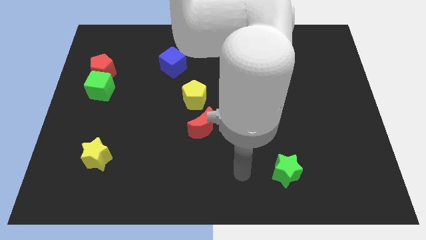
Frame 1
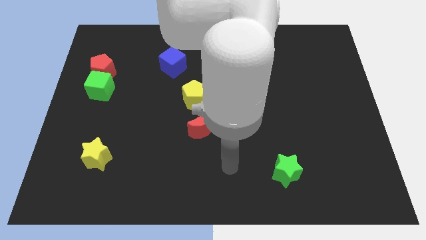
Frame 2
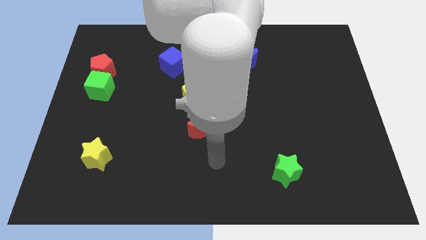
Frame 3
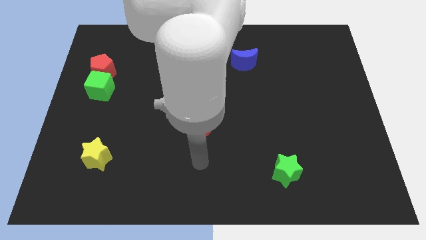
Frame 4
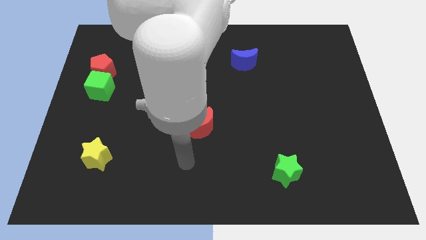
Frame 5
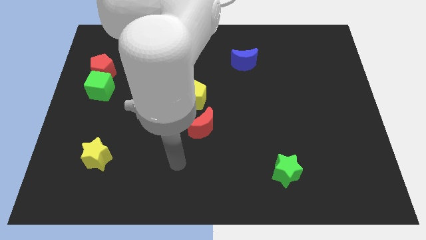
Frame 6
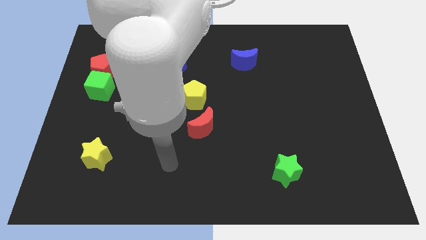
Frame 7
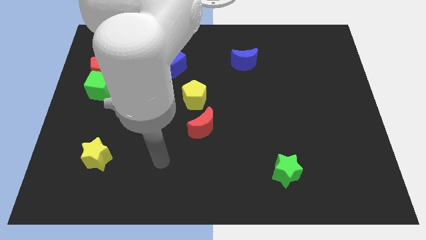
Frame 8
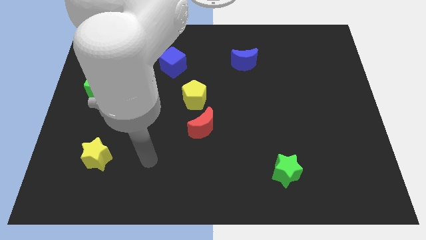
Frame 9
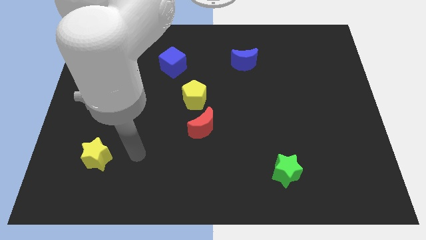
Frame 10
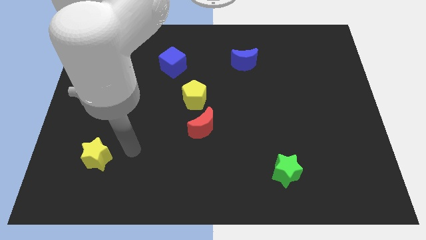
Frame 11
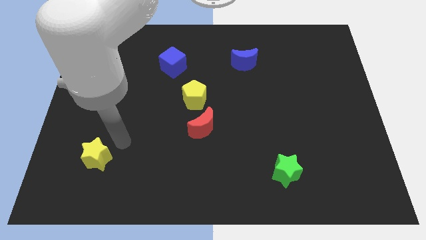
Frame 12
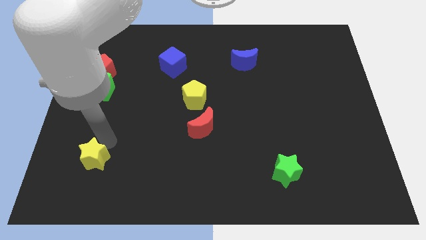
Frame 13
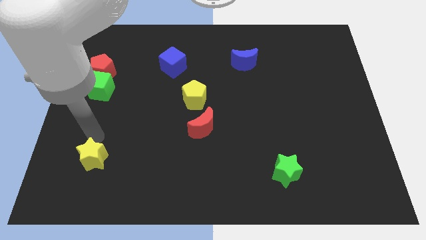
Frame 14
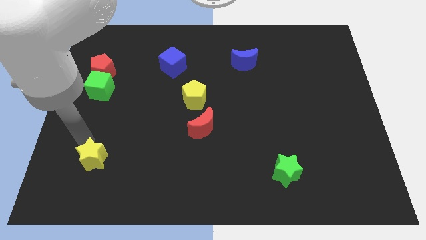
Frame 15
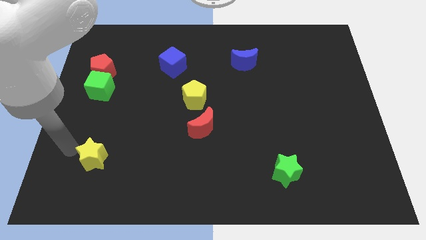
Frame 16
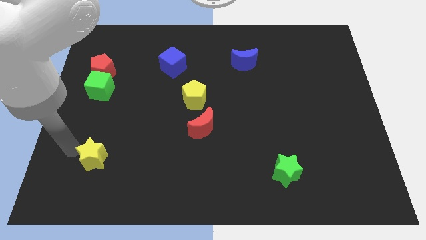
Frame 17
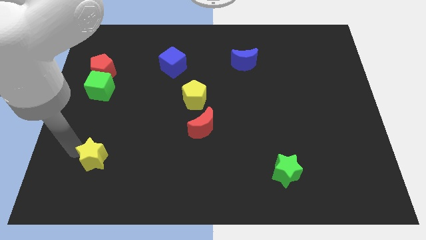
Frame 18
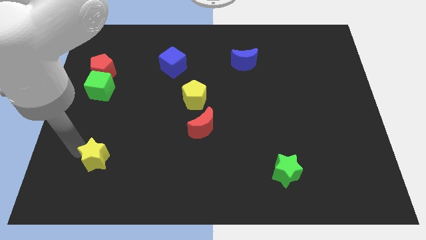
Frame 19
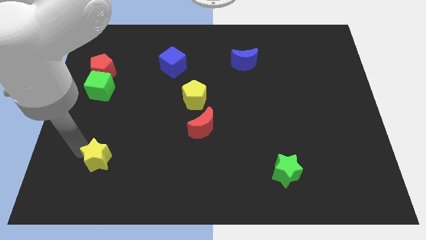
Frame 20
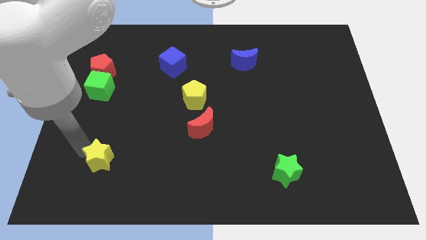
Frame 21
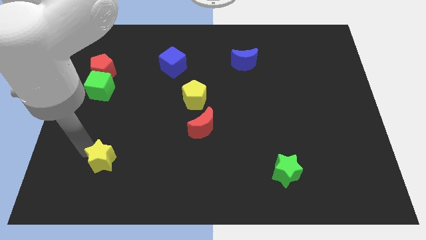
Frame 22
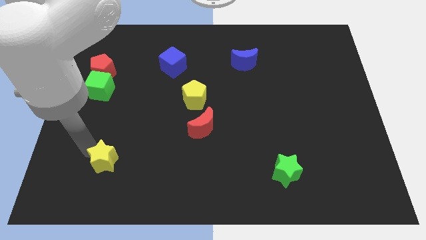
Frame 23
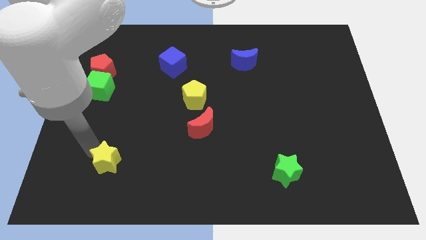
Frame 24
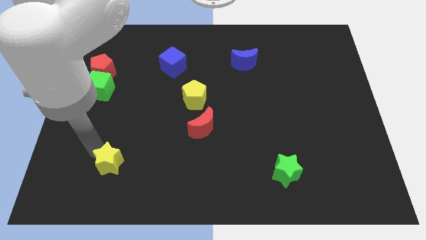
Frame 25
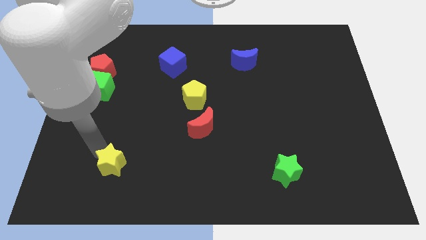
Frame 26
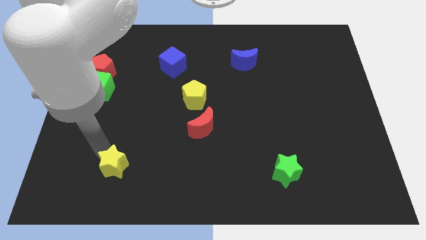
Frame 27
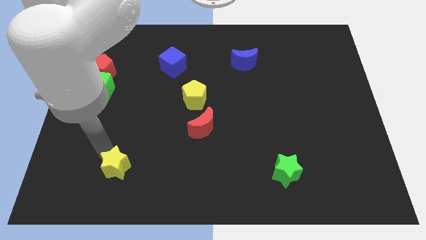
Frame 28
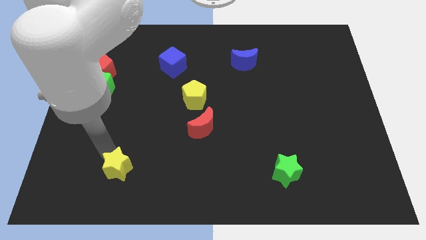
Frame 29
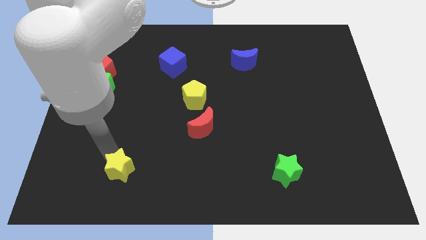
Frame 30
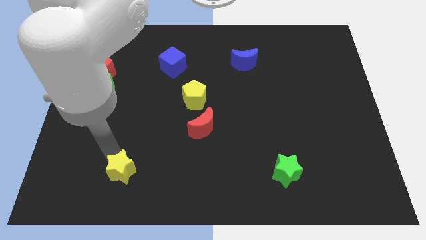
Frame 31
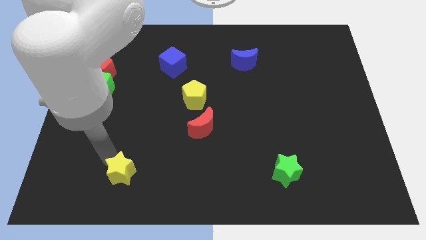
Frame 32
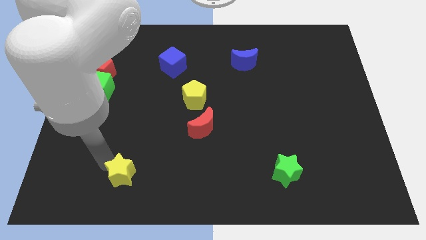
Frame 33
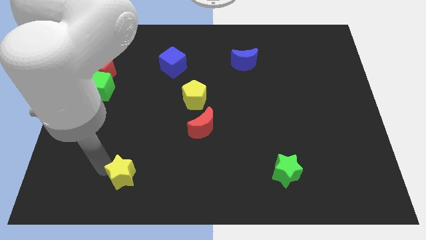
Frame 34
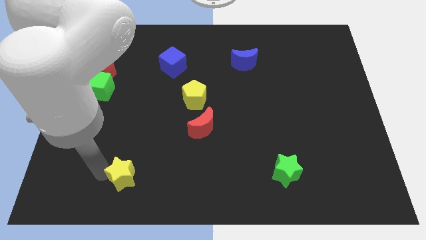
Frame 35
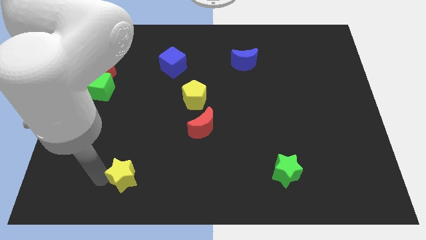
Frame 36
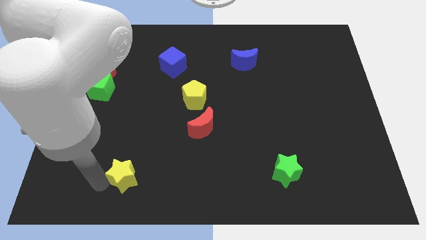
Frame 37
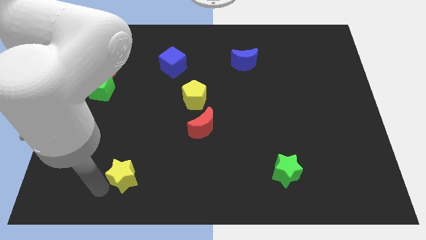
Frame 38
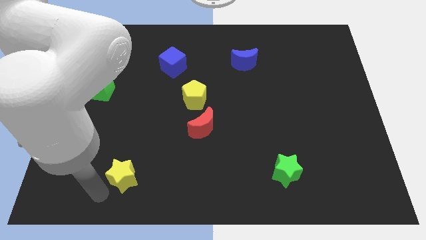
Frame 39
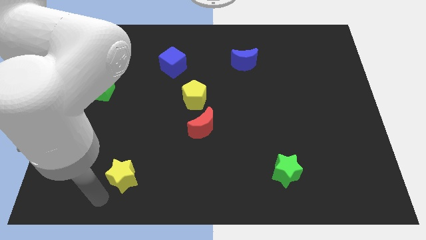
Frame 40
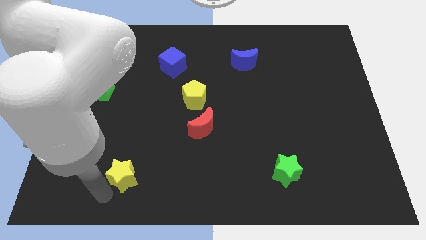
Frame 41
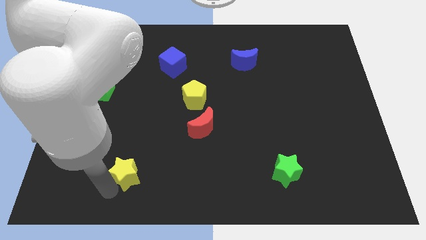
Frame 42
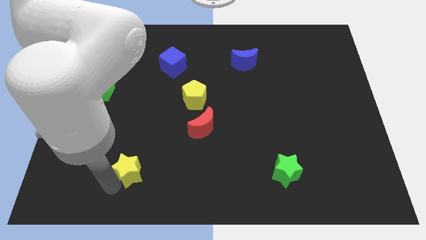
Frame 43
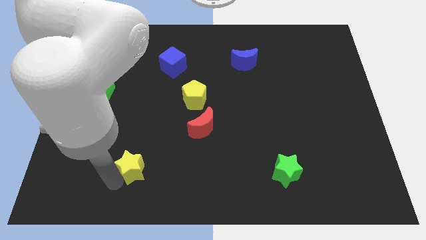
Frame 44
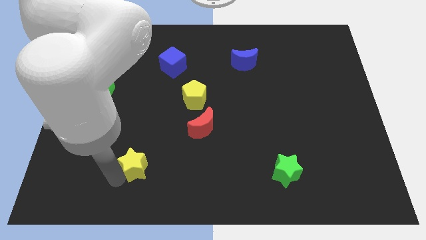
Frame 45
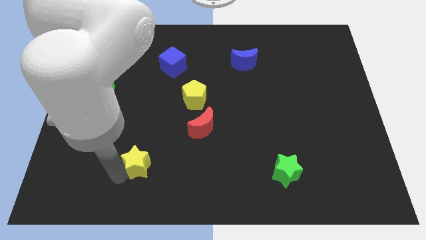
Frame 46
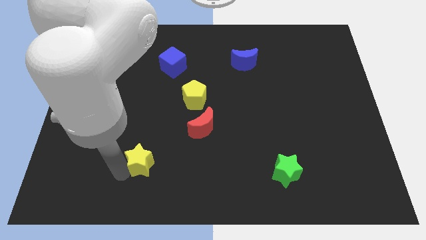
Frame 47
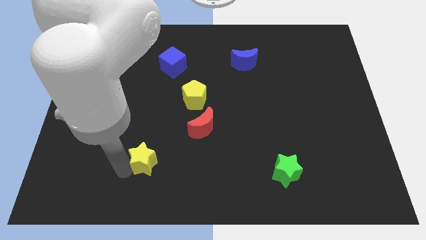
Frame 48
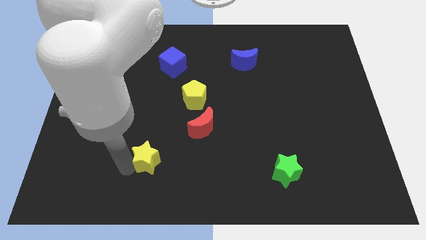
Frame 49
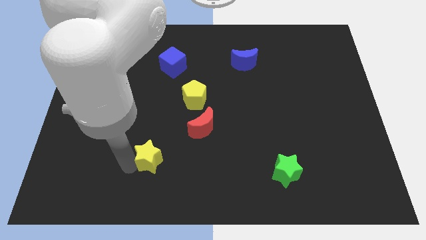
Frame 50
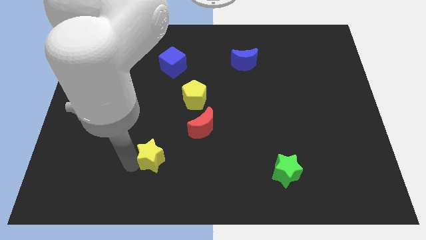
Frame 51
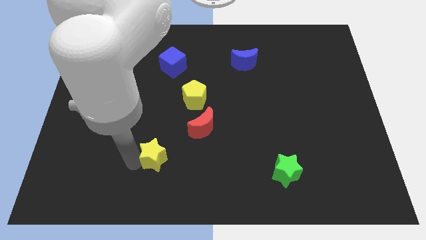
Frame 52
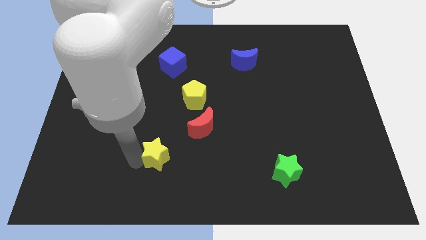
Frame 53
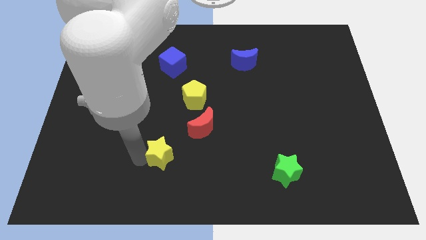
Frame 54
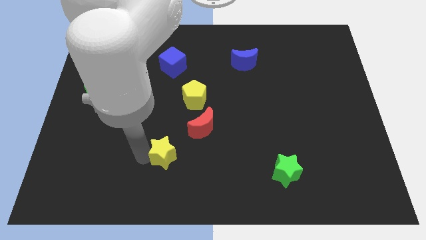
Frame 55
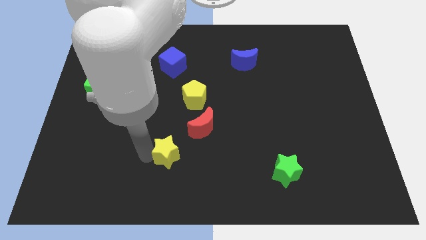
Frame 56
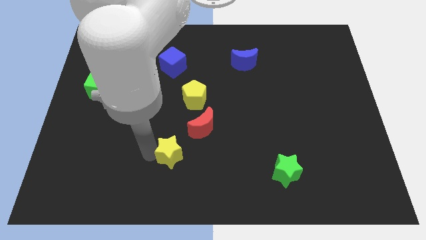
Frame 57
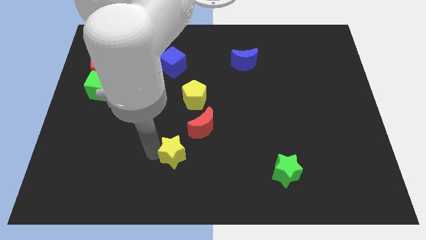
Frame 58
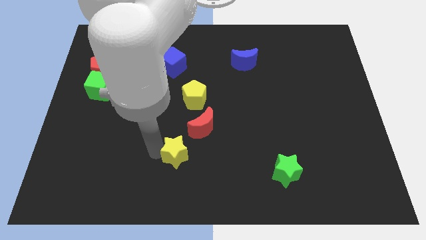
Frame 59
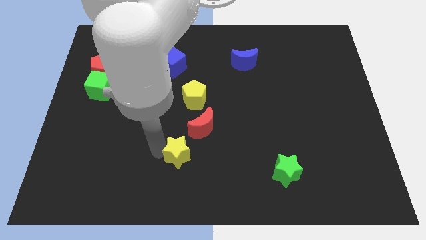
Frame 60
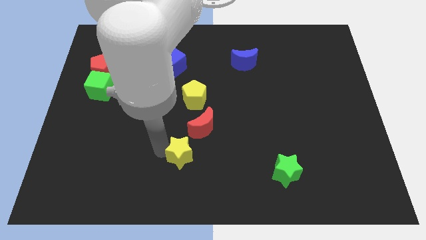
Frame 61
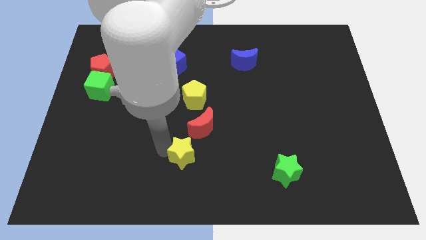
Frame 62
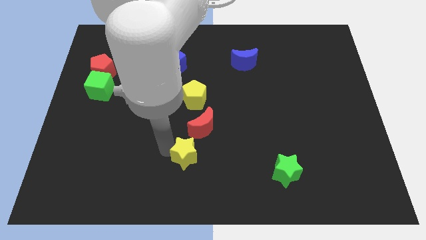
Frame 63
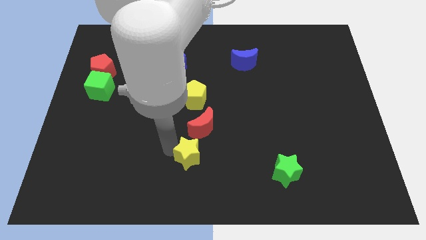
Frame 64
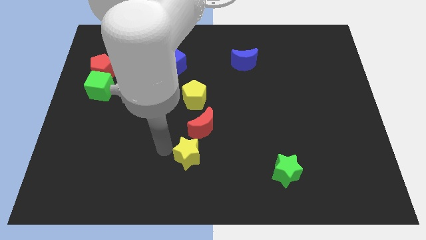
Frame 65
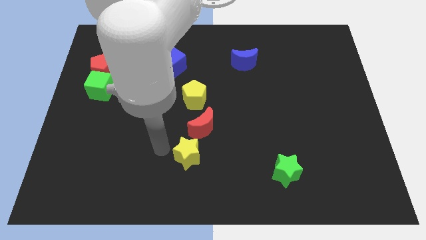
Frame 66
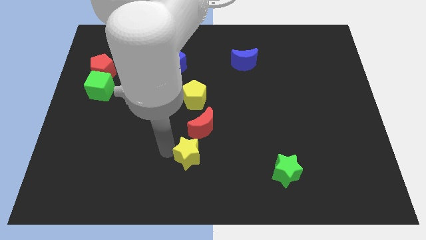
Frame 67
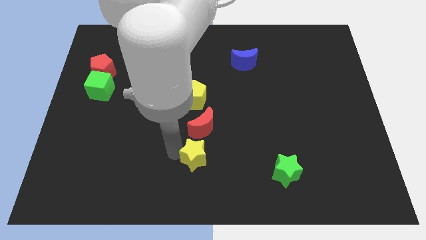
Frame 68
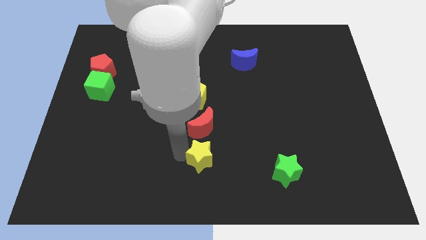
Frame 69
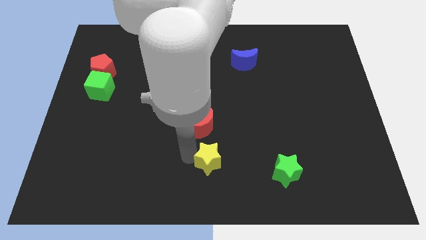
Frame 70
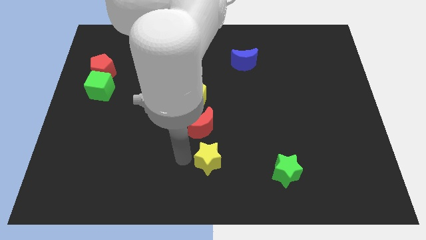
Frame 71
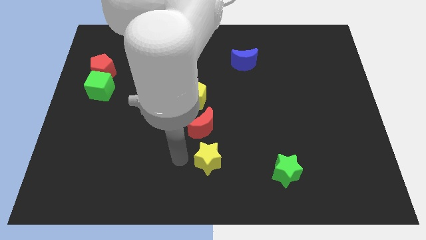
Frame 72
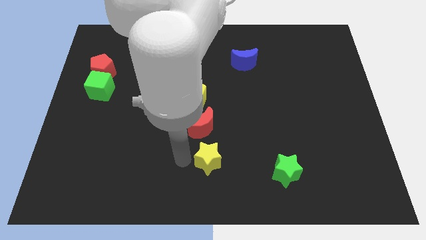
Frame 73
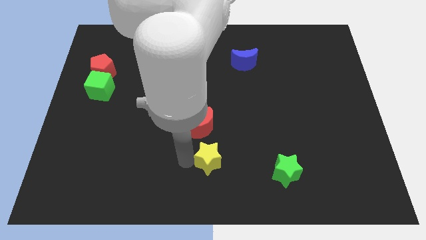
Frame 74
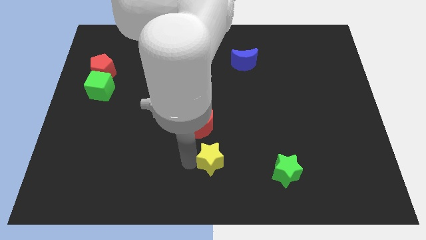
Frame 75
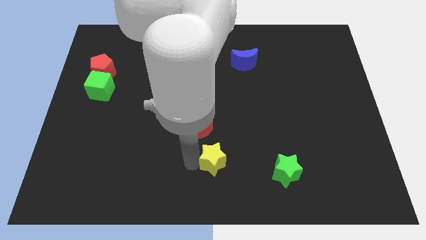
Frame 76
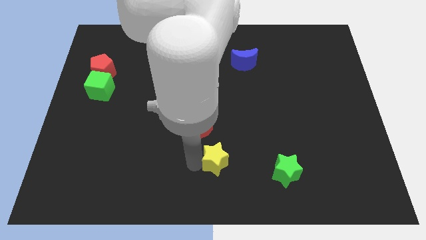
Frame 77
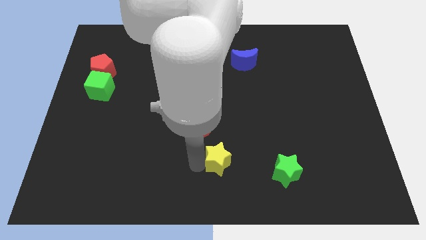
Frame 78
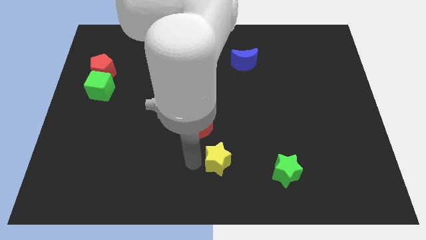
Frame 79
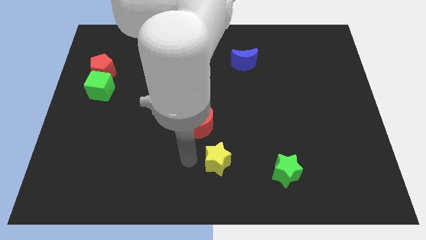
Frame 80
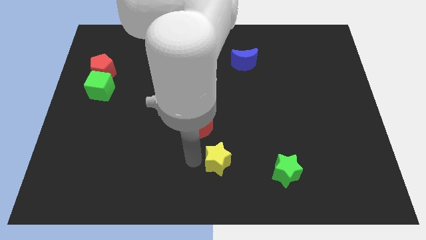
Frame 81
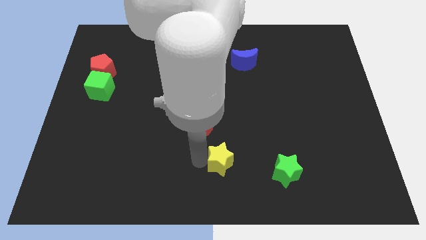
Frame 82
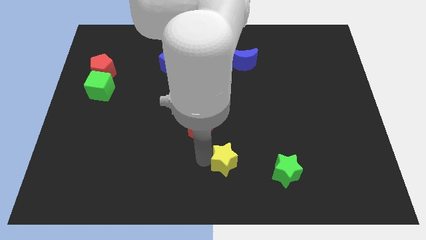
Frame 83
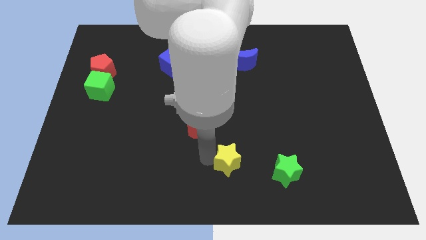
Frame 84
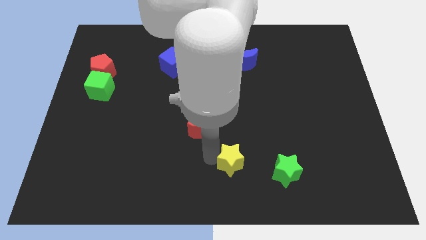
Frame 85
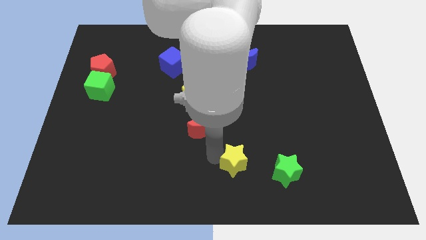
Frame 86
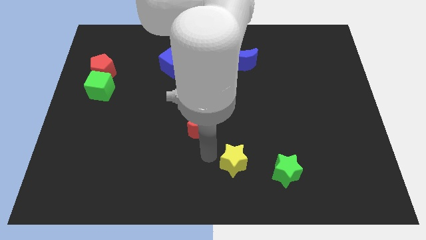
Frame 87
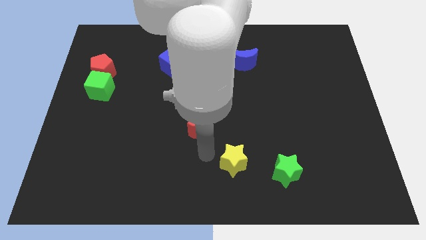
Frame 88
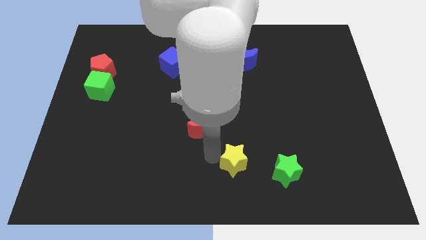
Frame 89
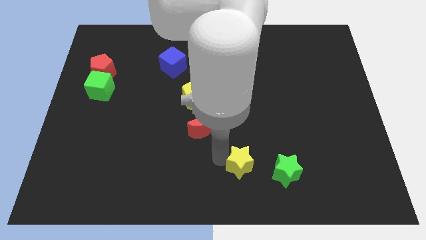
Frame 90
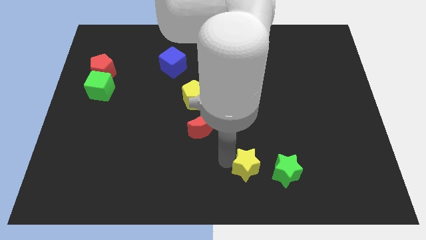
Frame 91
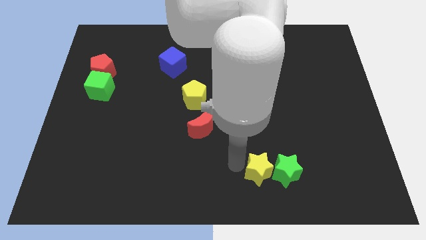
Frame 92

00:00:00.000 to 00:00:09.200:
slide the yellow star to the green star
